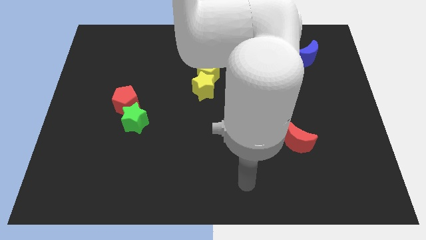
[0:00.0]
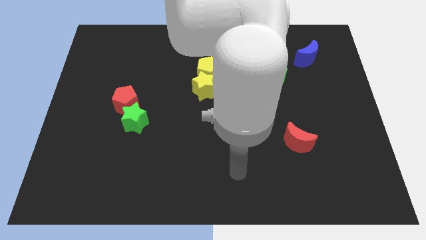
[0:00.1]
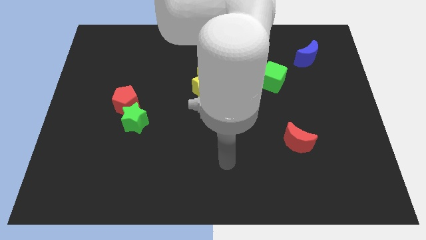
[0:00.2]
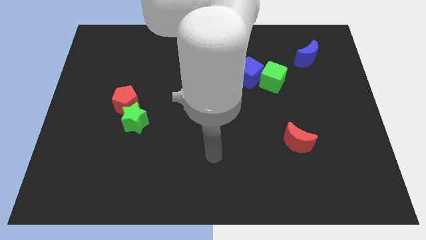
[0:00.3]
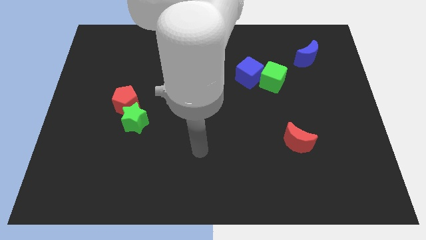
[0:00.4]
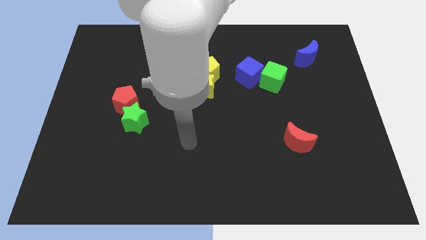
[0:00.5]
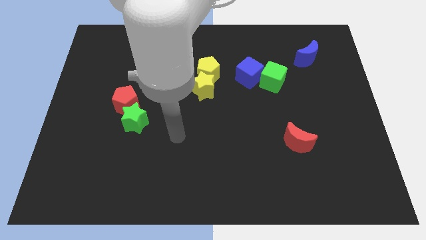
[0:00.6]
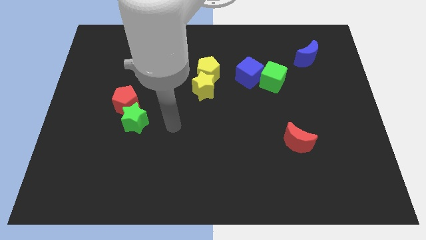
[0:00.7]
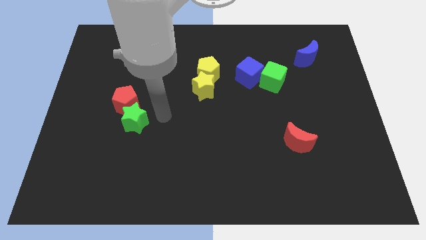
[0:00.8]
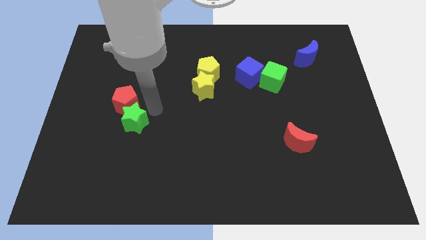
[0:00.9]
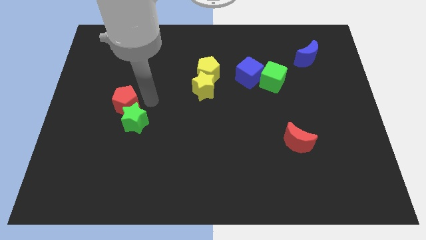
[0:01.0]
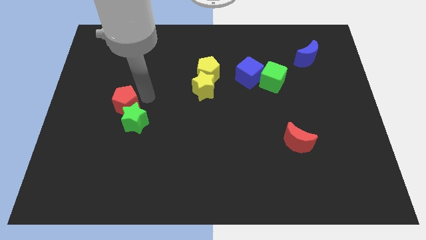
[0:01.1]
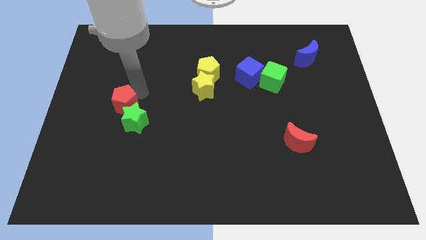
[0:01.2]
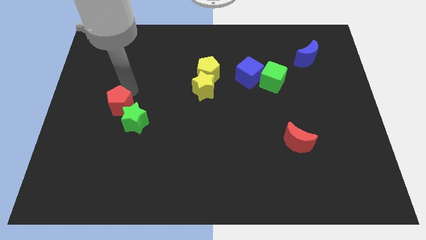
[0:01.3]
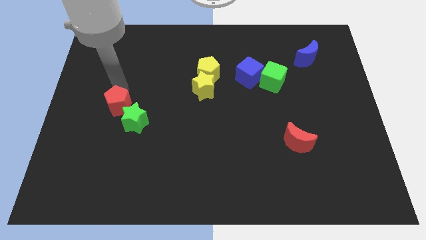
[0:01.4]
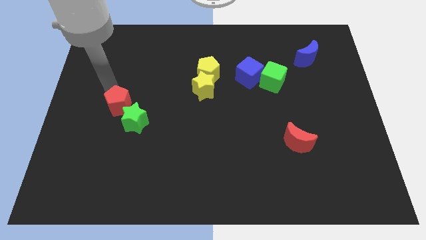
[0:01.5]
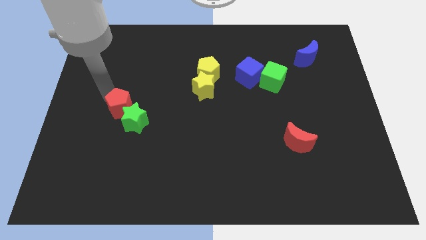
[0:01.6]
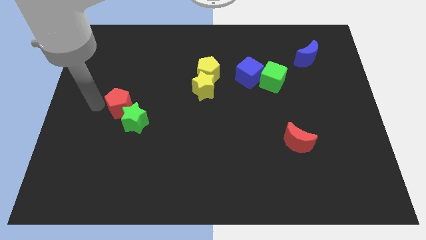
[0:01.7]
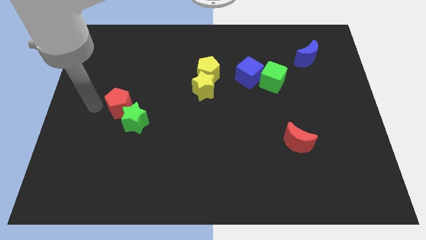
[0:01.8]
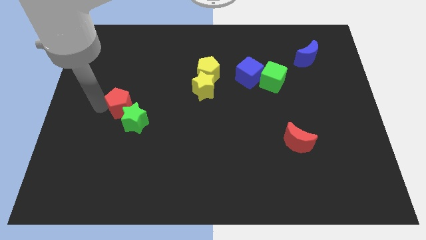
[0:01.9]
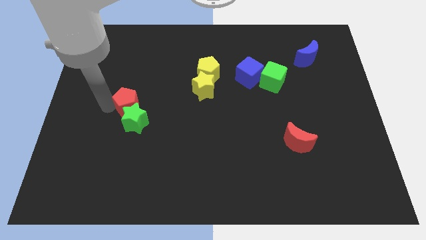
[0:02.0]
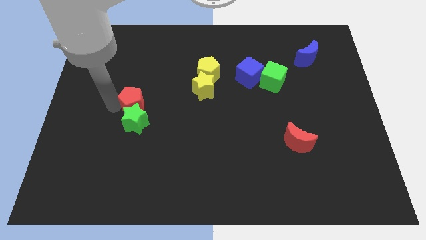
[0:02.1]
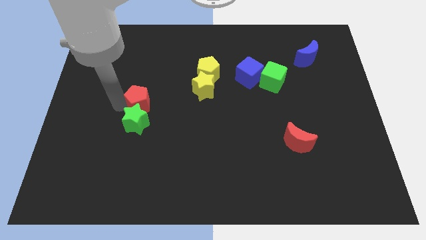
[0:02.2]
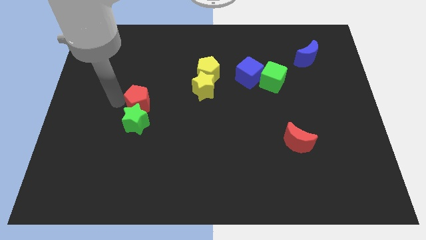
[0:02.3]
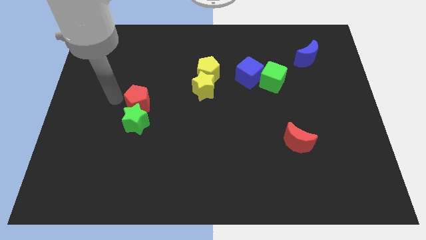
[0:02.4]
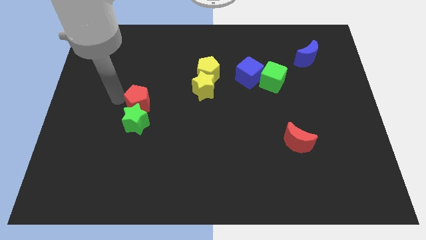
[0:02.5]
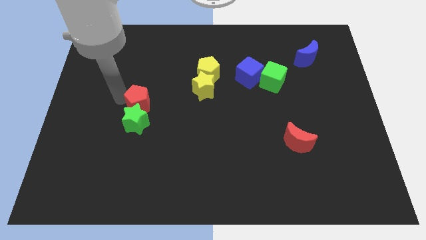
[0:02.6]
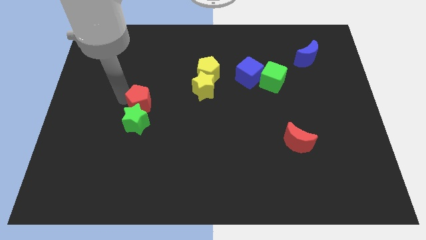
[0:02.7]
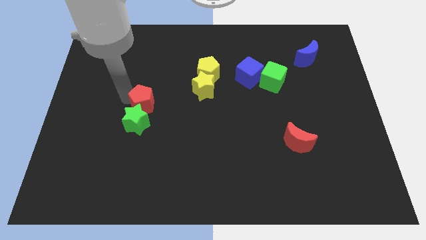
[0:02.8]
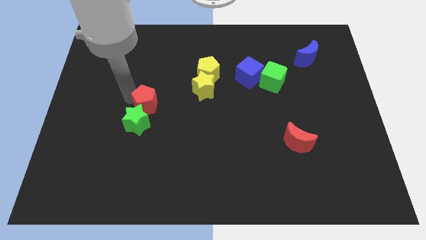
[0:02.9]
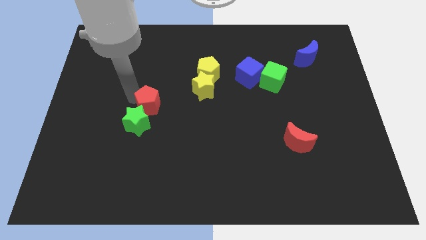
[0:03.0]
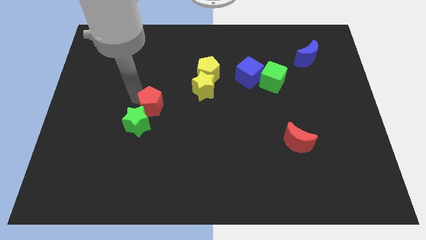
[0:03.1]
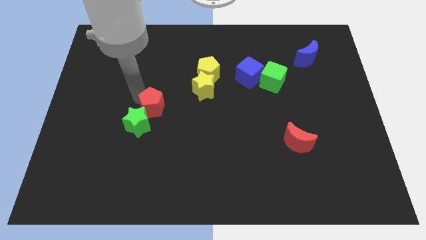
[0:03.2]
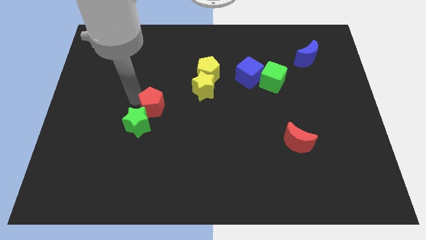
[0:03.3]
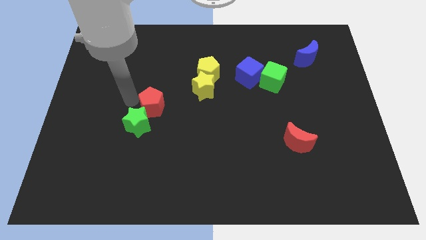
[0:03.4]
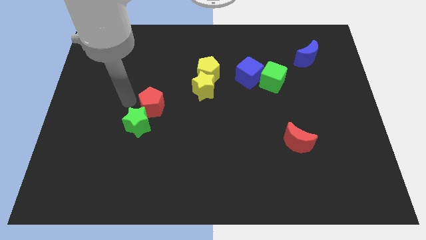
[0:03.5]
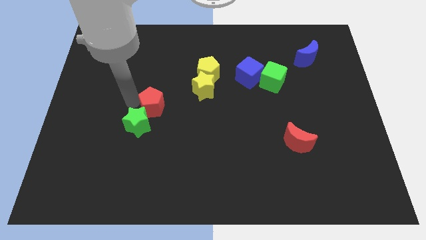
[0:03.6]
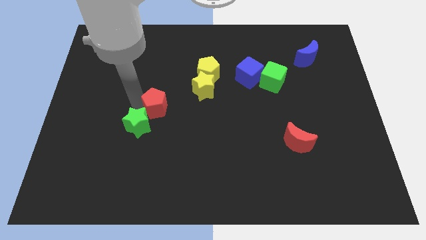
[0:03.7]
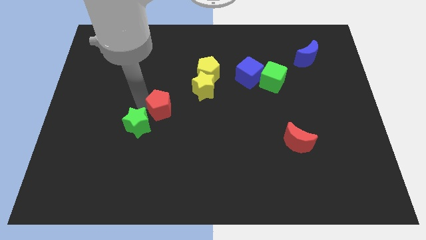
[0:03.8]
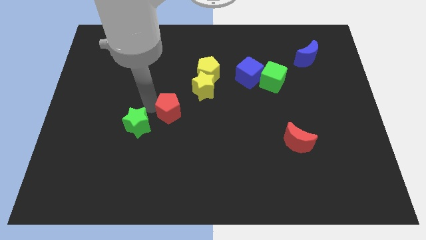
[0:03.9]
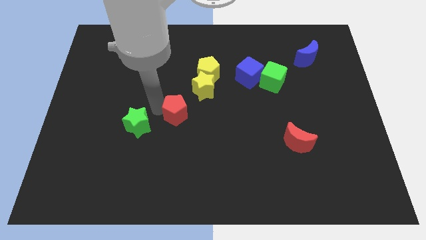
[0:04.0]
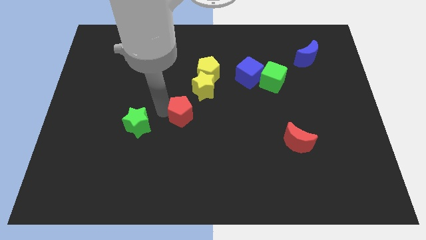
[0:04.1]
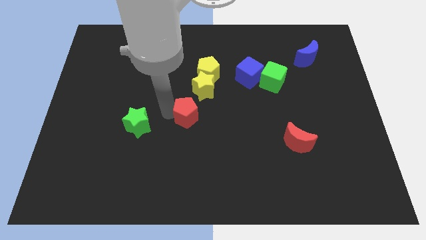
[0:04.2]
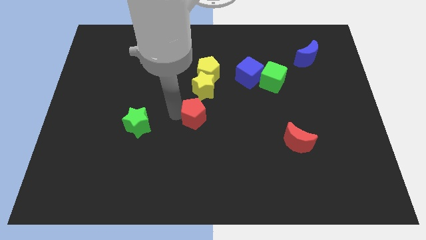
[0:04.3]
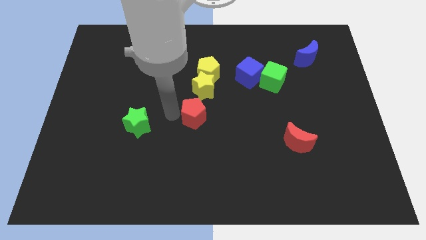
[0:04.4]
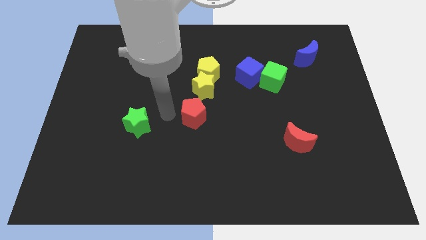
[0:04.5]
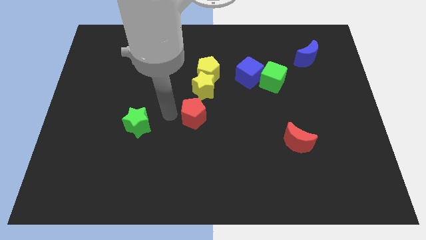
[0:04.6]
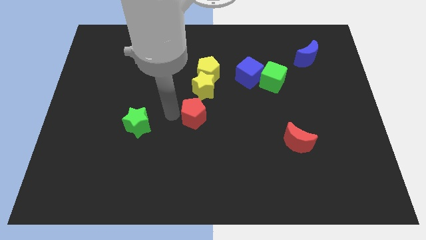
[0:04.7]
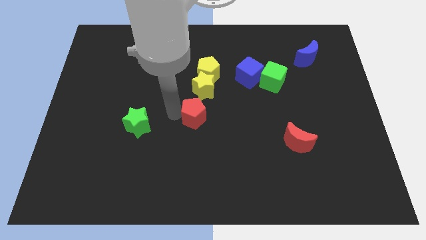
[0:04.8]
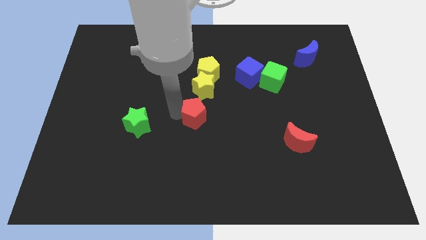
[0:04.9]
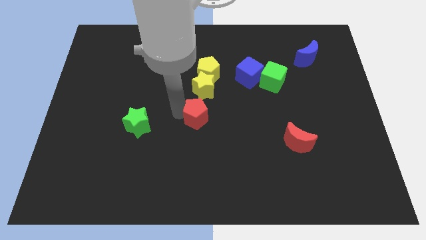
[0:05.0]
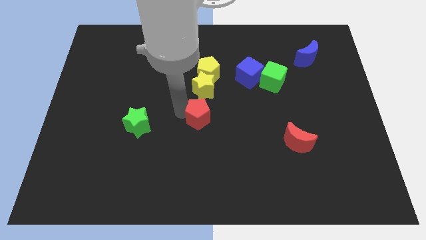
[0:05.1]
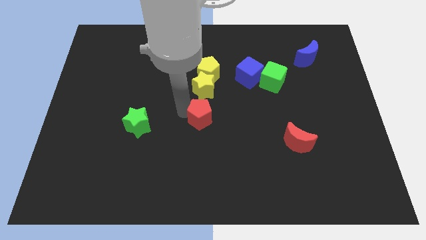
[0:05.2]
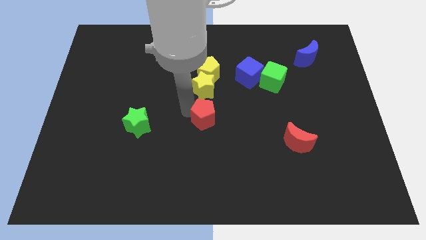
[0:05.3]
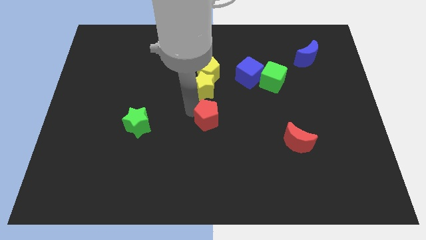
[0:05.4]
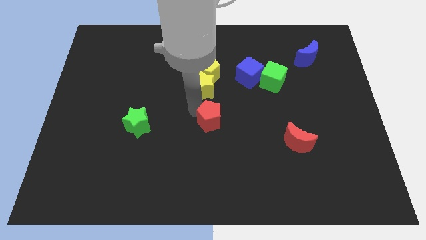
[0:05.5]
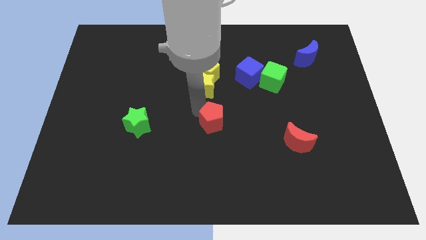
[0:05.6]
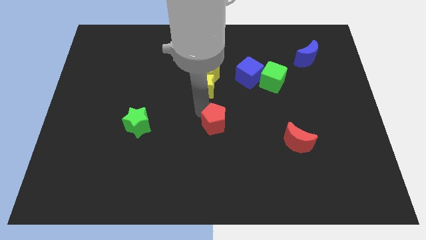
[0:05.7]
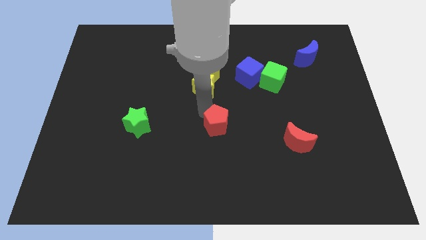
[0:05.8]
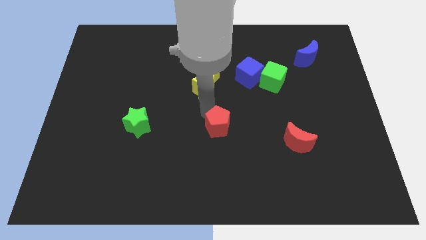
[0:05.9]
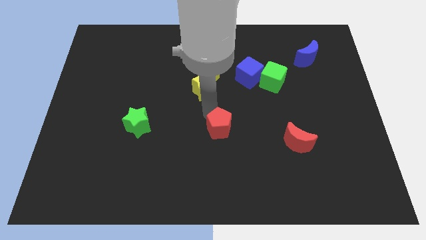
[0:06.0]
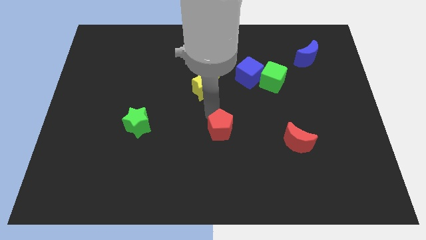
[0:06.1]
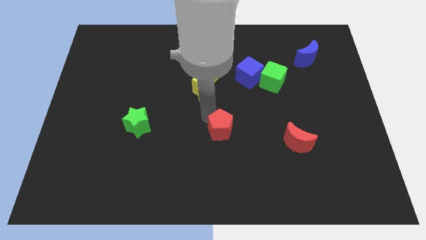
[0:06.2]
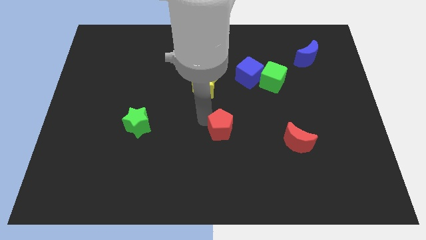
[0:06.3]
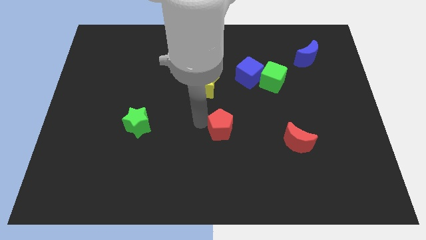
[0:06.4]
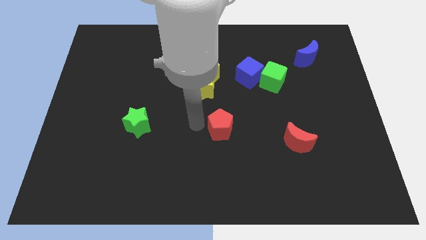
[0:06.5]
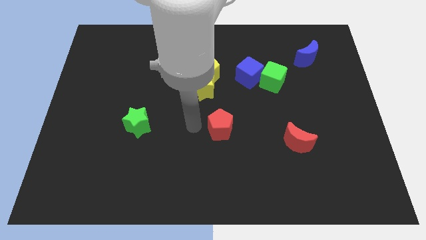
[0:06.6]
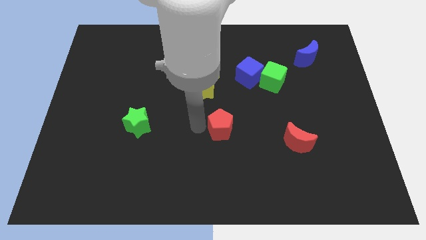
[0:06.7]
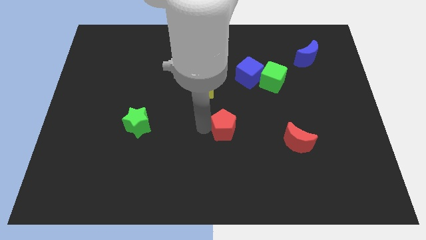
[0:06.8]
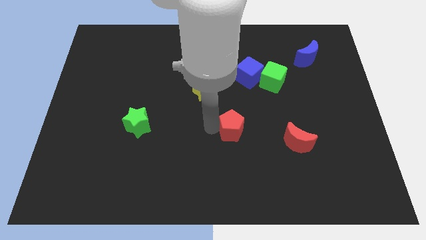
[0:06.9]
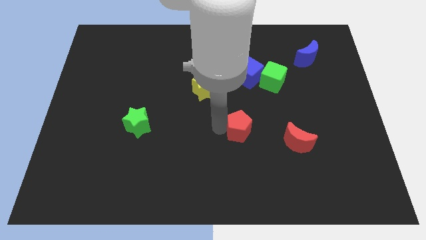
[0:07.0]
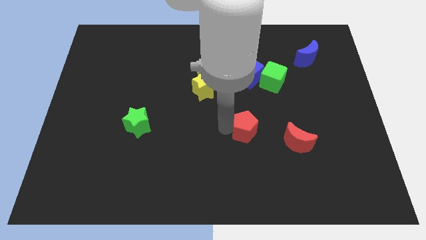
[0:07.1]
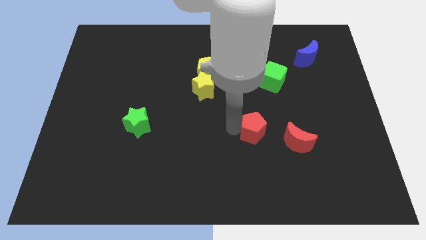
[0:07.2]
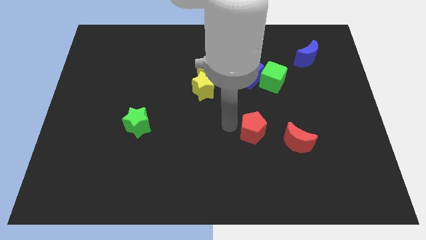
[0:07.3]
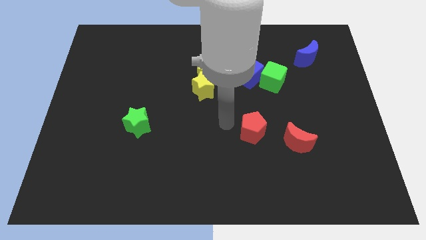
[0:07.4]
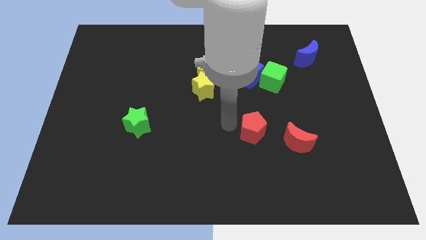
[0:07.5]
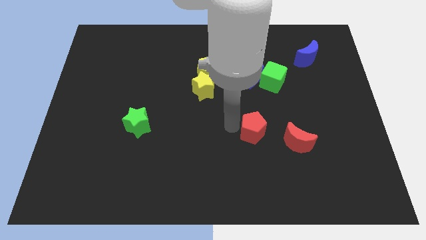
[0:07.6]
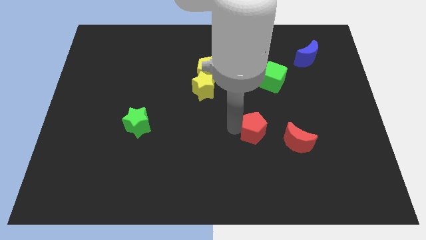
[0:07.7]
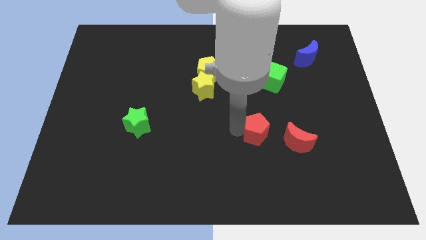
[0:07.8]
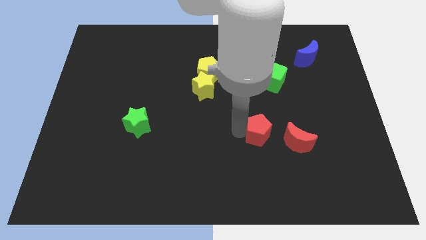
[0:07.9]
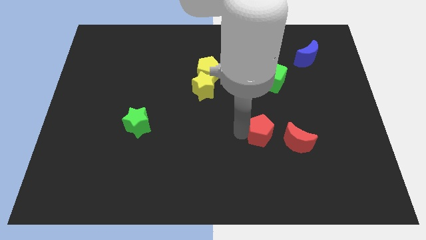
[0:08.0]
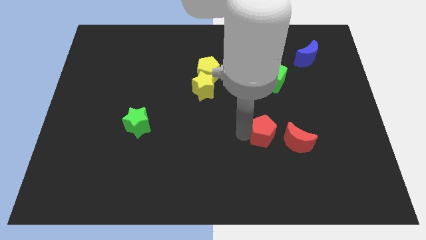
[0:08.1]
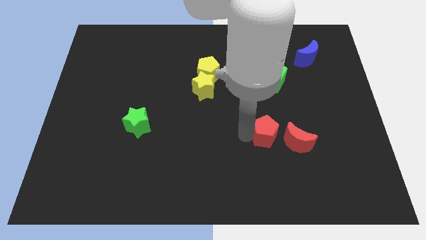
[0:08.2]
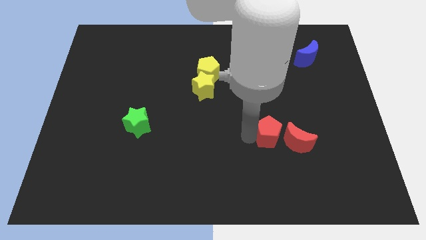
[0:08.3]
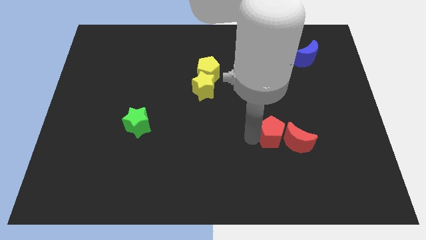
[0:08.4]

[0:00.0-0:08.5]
move the red pentagon close to the red moon
